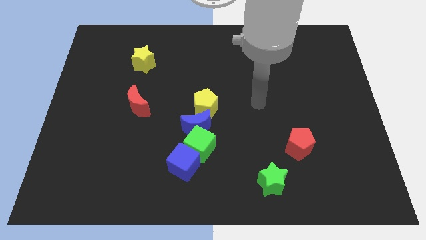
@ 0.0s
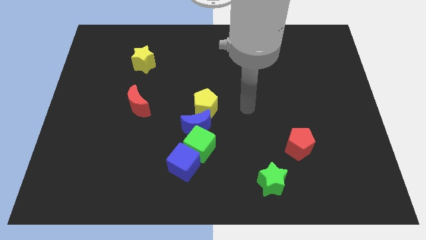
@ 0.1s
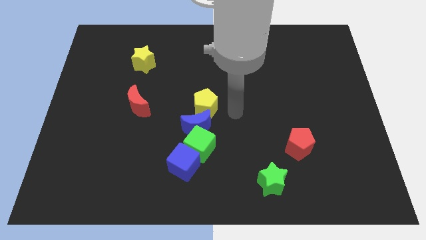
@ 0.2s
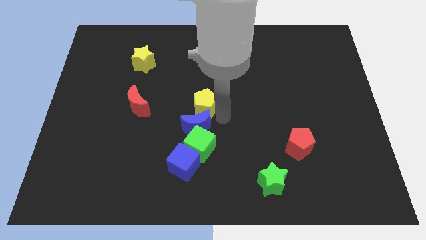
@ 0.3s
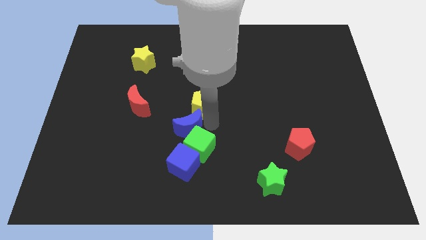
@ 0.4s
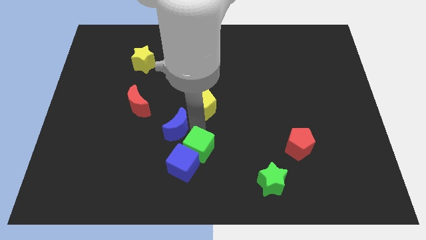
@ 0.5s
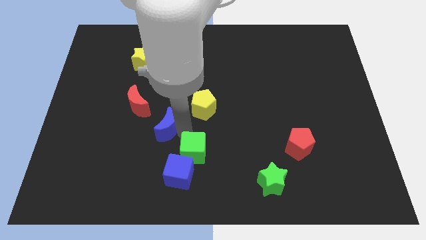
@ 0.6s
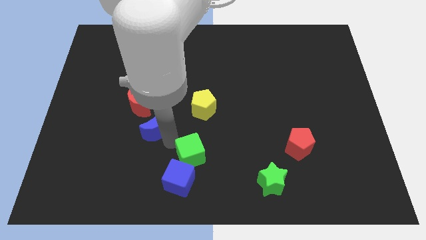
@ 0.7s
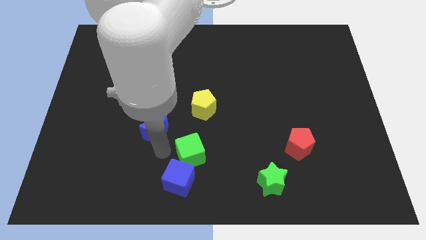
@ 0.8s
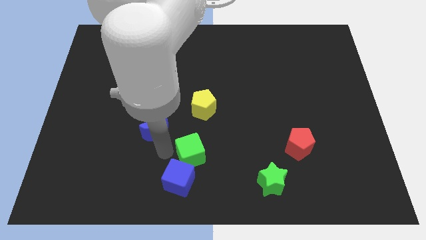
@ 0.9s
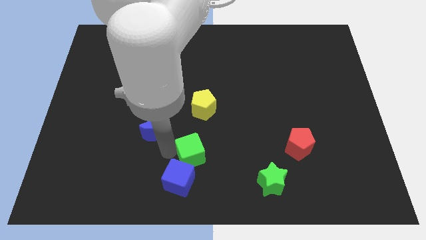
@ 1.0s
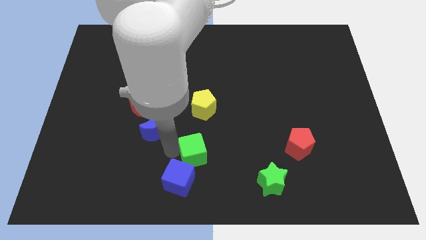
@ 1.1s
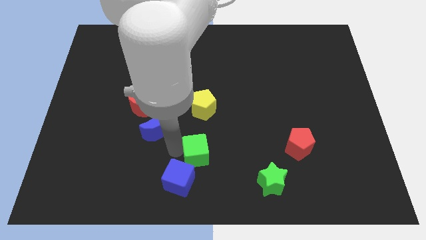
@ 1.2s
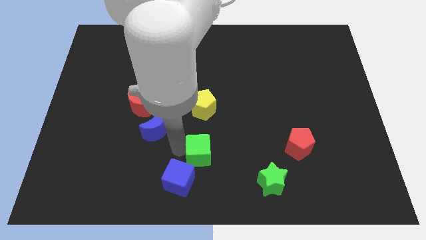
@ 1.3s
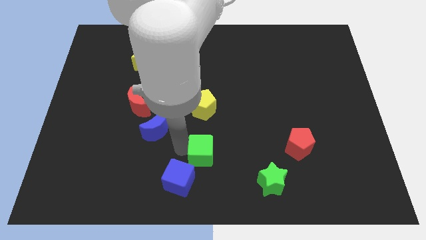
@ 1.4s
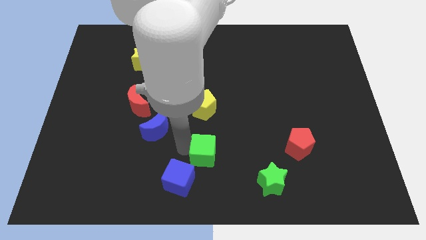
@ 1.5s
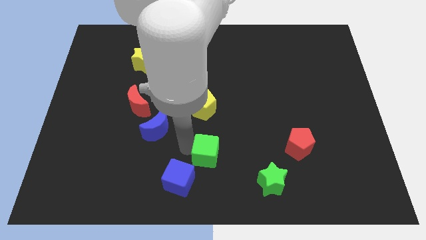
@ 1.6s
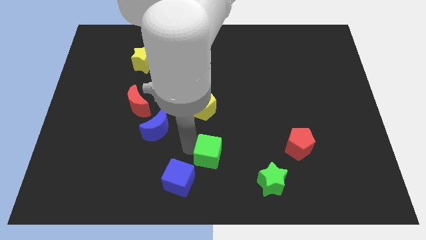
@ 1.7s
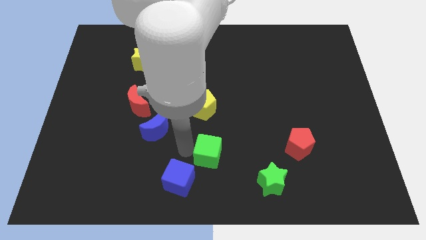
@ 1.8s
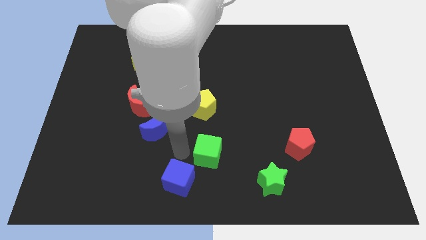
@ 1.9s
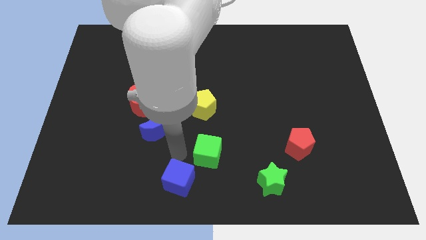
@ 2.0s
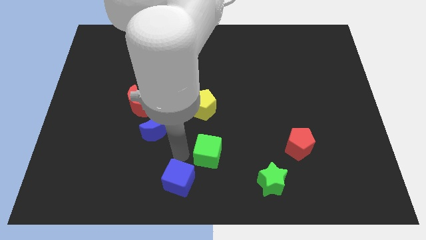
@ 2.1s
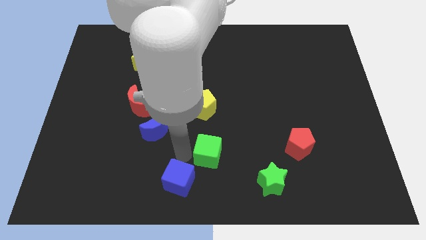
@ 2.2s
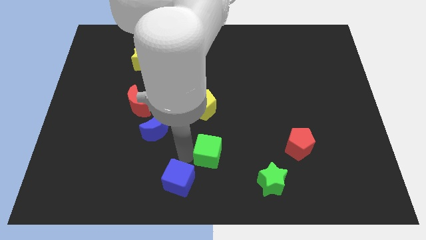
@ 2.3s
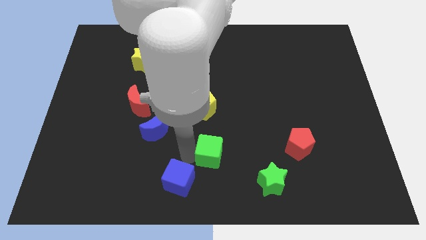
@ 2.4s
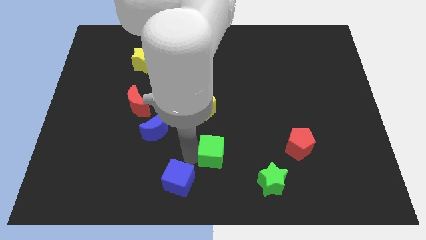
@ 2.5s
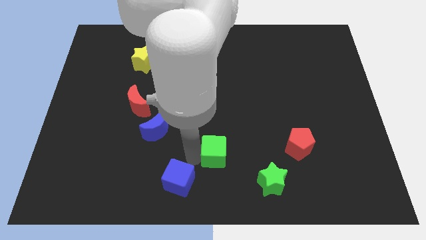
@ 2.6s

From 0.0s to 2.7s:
move the green cube away from the blue moon and blue cube

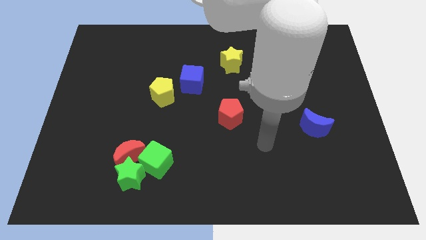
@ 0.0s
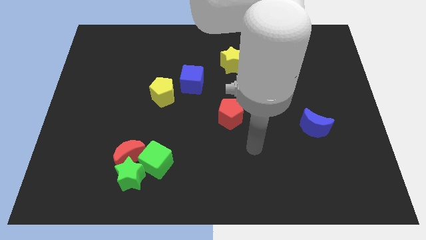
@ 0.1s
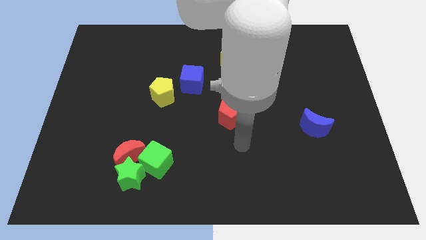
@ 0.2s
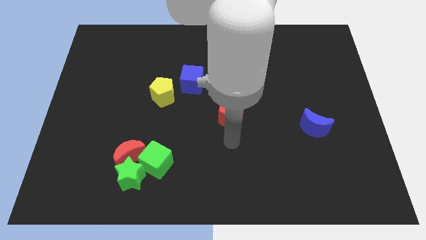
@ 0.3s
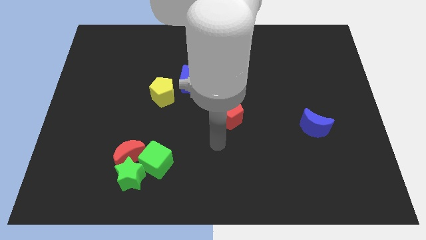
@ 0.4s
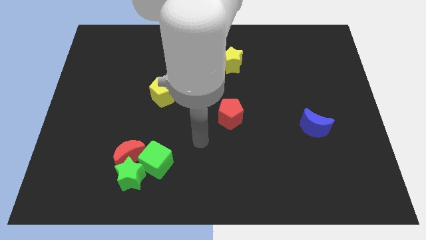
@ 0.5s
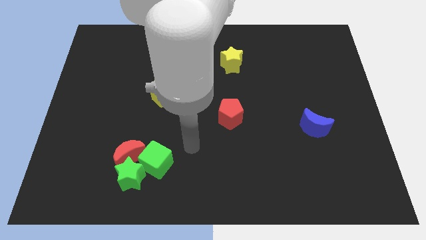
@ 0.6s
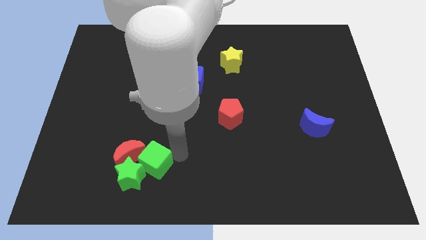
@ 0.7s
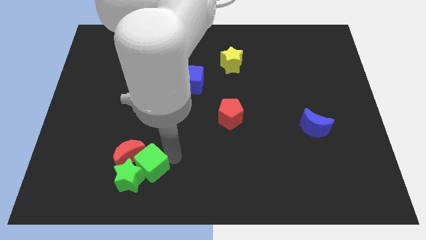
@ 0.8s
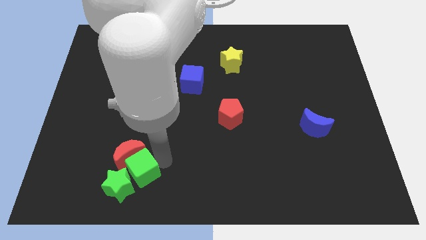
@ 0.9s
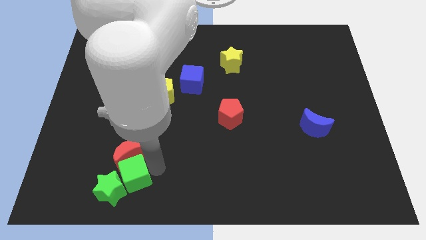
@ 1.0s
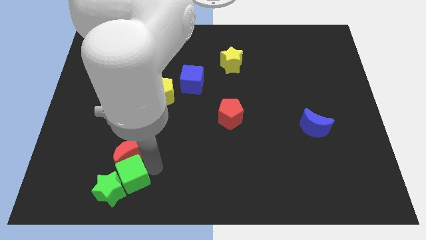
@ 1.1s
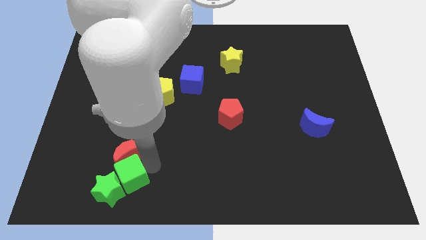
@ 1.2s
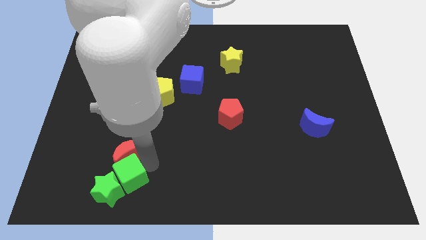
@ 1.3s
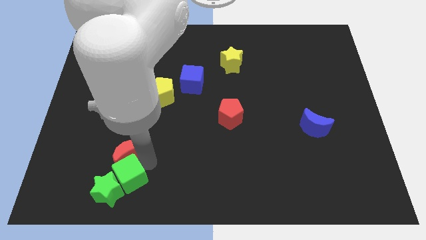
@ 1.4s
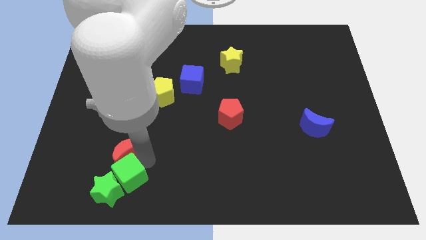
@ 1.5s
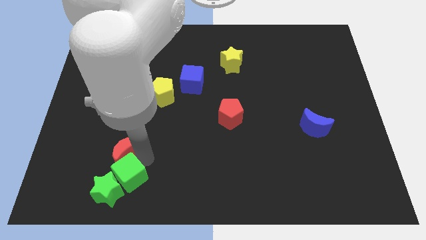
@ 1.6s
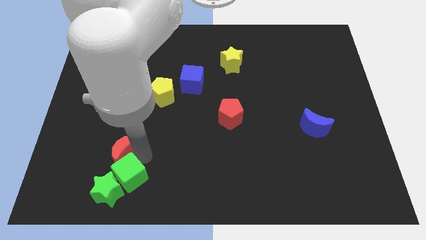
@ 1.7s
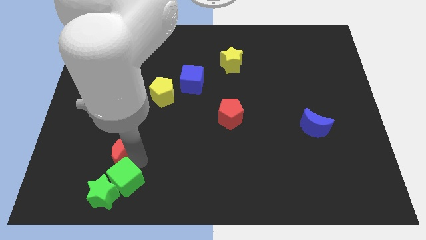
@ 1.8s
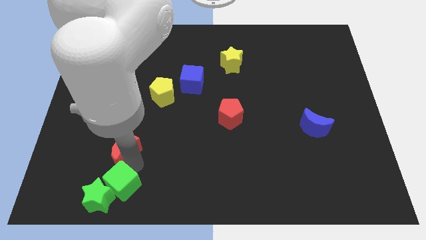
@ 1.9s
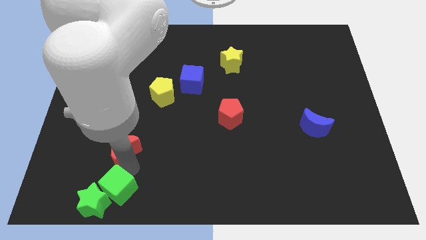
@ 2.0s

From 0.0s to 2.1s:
pull the red moon apart from the green star and green cube

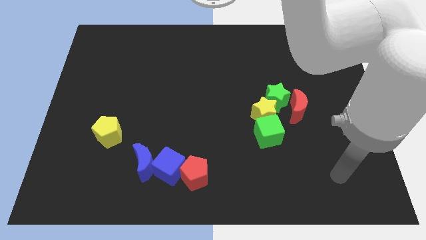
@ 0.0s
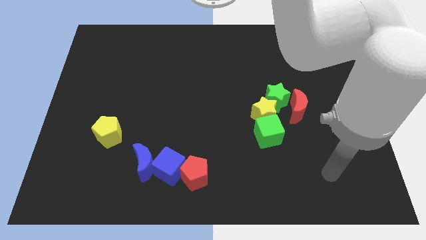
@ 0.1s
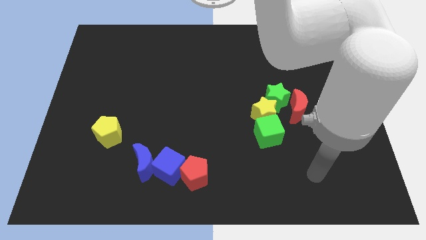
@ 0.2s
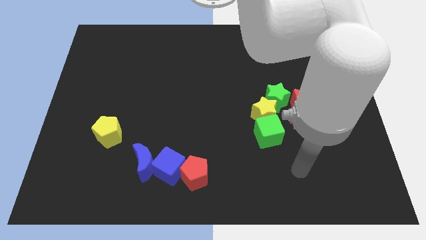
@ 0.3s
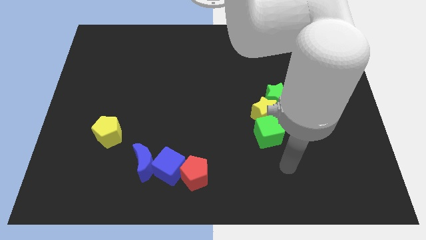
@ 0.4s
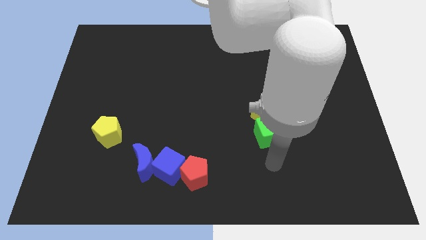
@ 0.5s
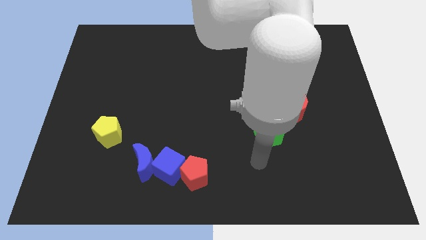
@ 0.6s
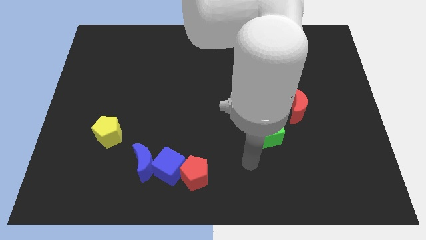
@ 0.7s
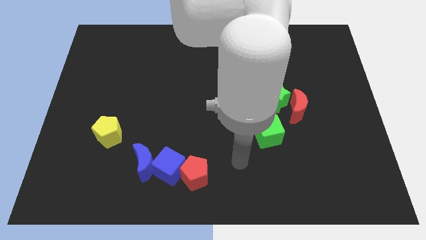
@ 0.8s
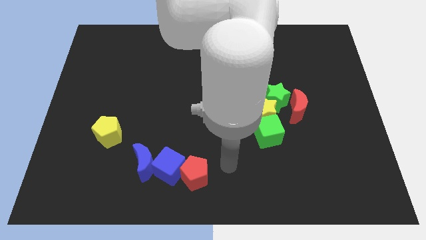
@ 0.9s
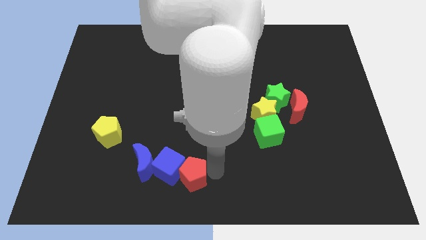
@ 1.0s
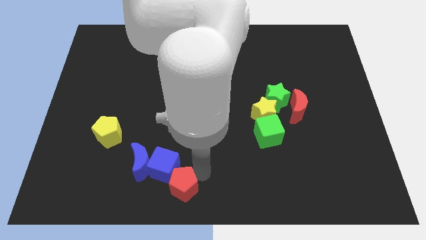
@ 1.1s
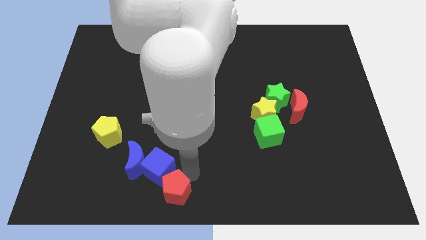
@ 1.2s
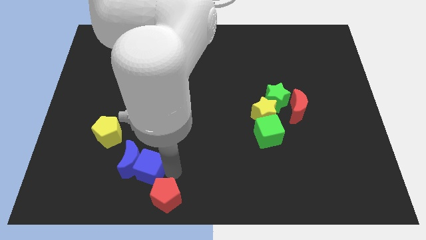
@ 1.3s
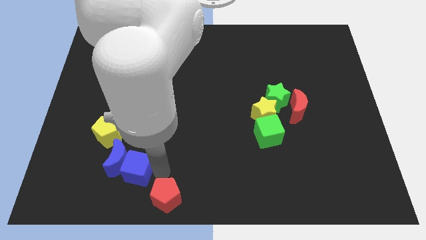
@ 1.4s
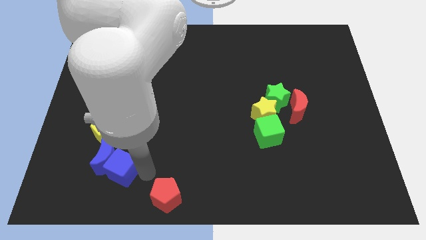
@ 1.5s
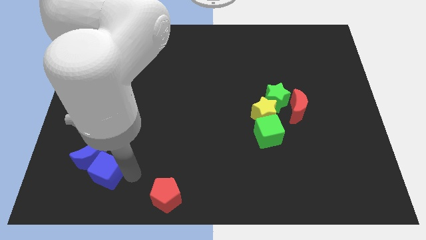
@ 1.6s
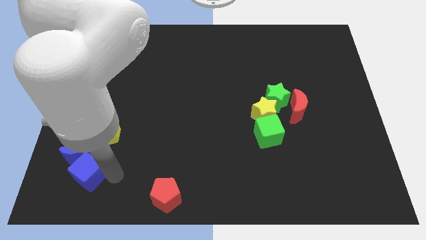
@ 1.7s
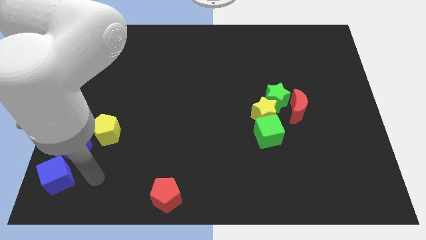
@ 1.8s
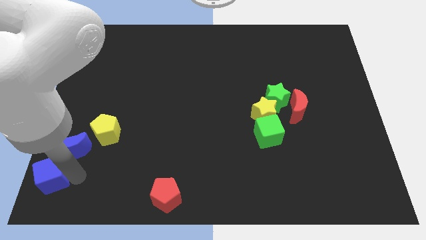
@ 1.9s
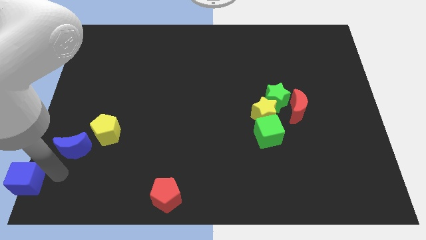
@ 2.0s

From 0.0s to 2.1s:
separate the blue moon from the blue cube

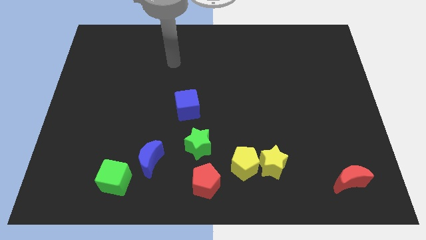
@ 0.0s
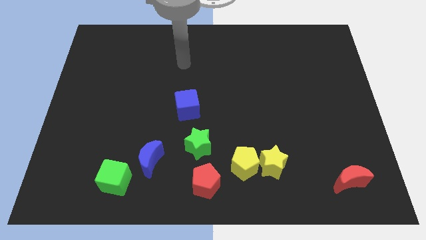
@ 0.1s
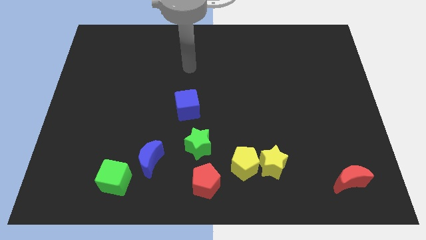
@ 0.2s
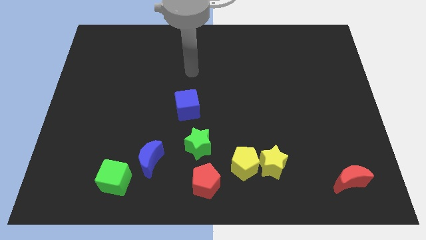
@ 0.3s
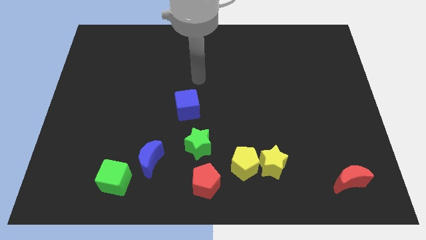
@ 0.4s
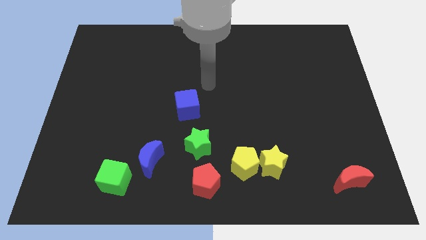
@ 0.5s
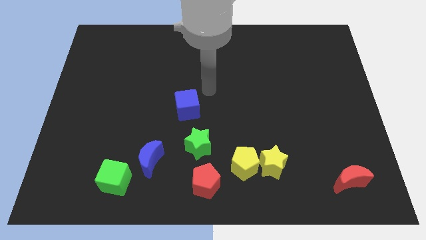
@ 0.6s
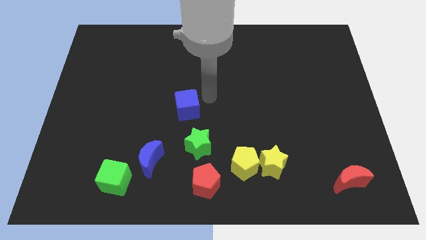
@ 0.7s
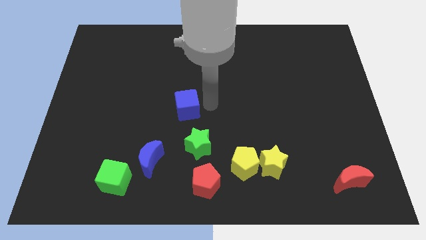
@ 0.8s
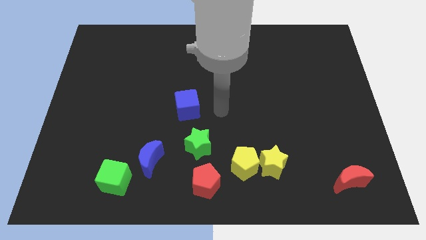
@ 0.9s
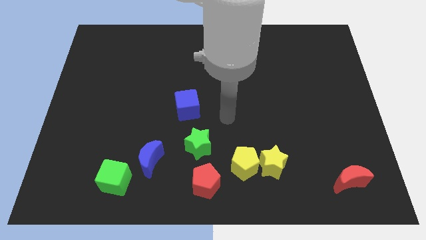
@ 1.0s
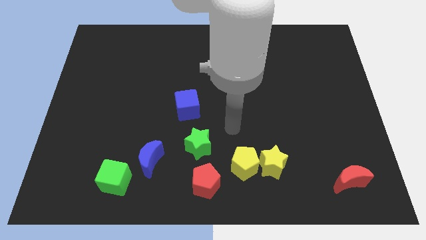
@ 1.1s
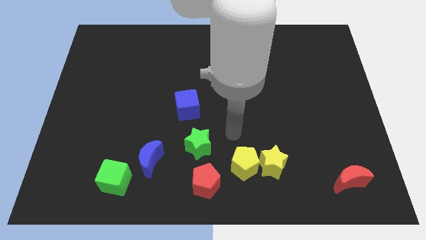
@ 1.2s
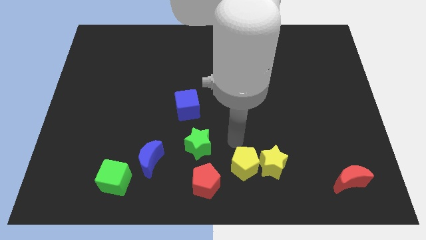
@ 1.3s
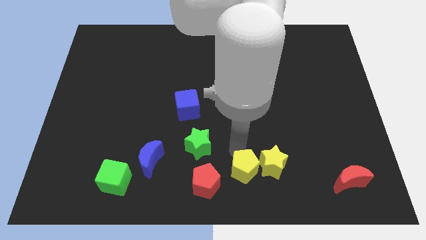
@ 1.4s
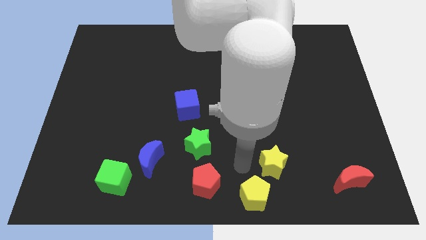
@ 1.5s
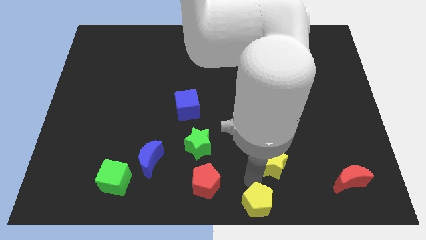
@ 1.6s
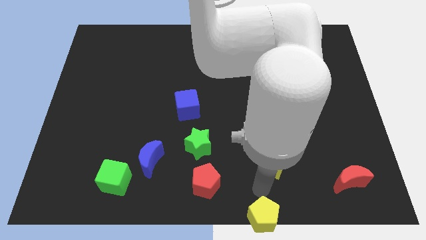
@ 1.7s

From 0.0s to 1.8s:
pull the yellow star apart from the yellow pentagon

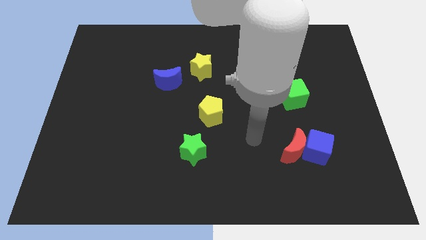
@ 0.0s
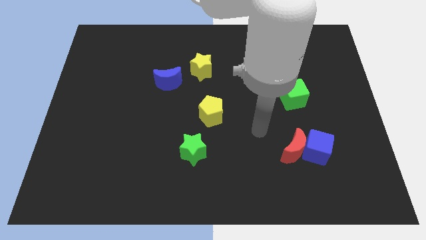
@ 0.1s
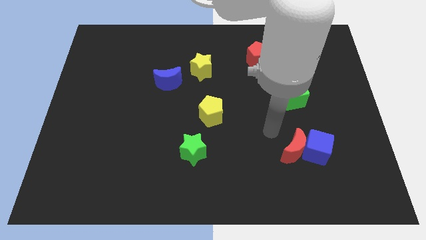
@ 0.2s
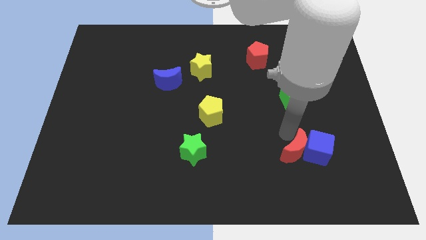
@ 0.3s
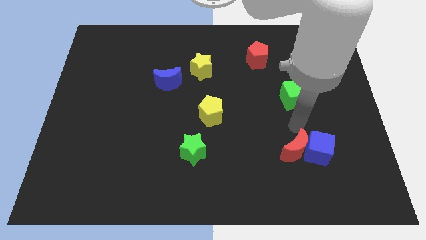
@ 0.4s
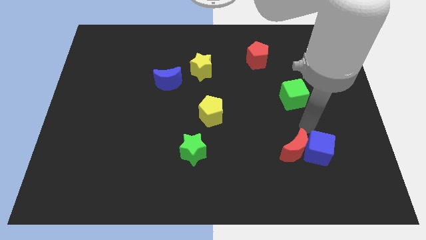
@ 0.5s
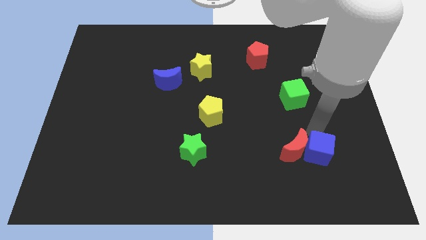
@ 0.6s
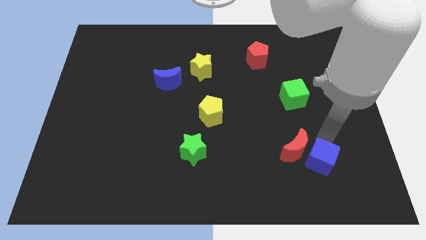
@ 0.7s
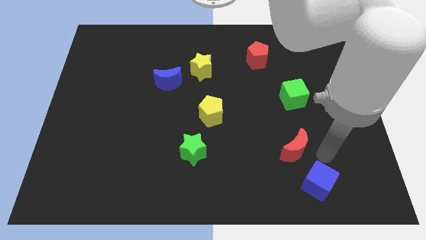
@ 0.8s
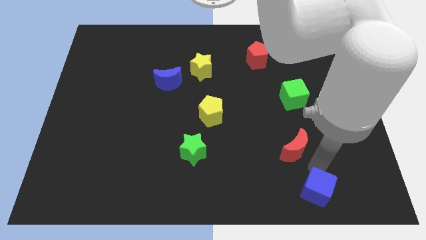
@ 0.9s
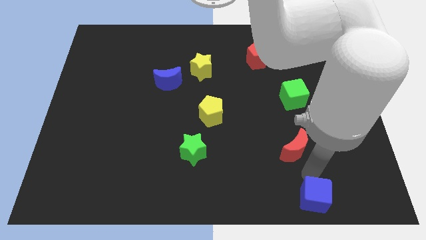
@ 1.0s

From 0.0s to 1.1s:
separate the red moon from the blue cube
